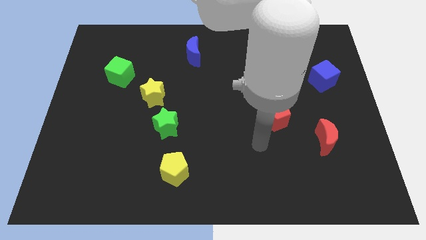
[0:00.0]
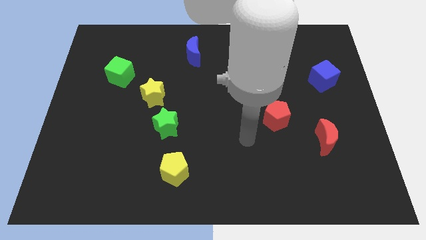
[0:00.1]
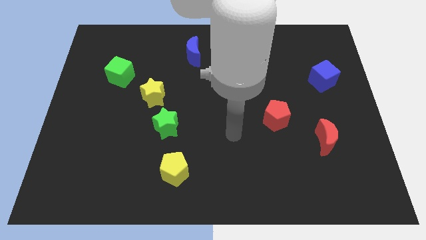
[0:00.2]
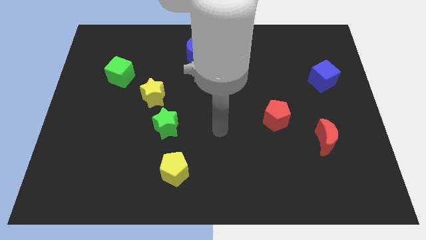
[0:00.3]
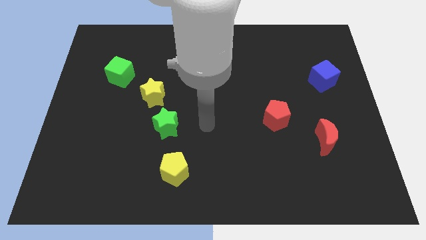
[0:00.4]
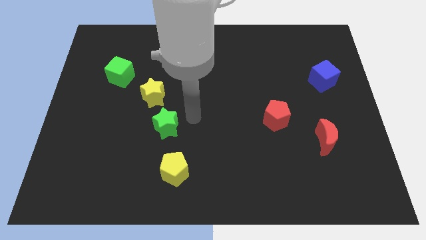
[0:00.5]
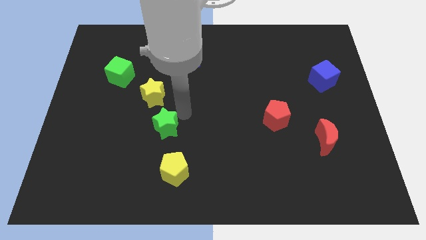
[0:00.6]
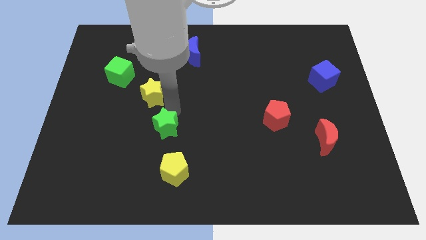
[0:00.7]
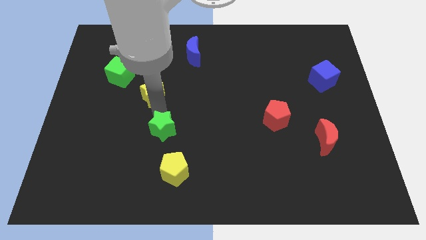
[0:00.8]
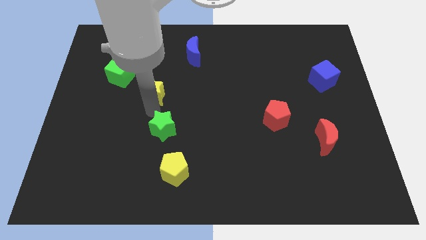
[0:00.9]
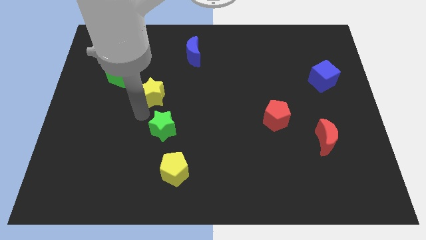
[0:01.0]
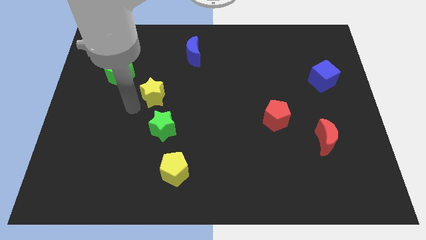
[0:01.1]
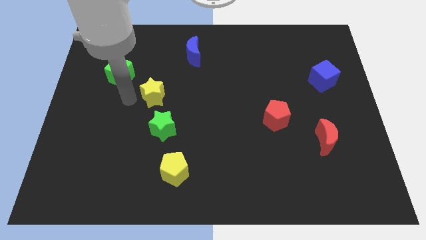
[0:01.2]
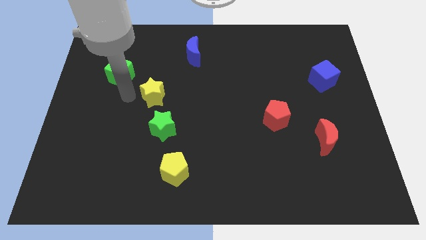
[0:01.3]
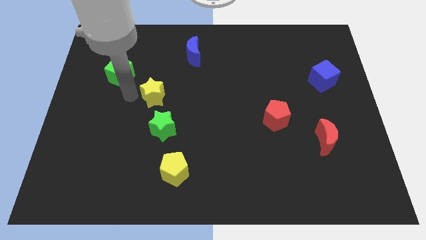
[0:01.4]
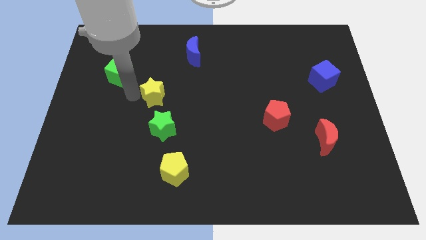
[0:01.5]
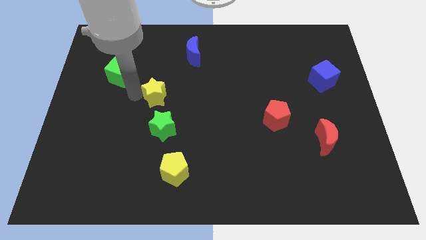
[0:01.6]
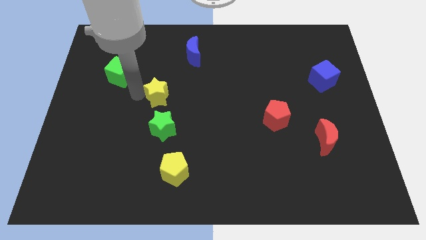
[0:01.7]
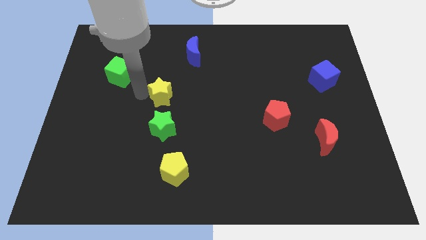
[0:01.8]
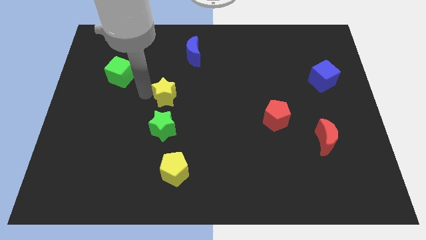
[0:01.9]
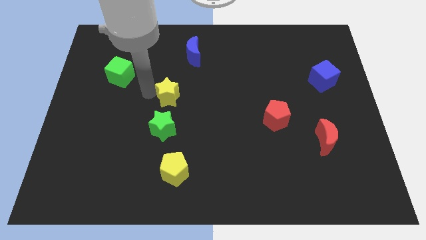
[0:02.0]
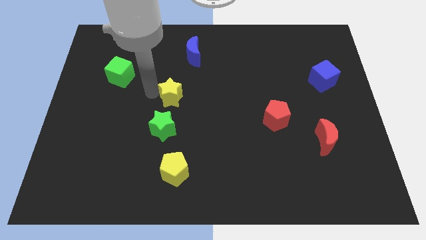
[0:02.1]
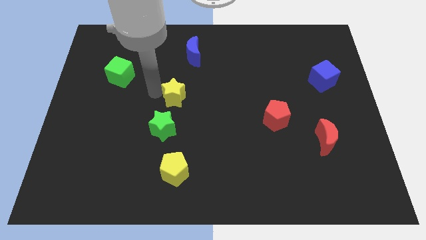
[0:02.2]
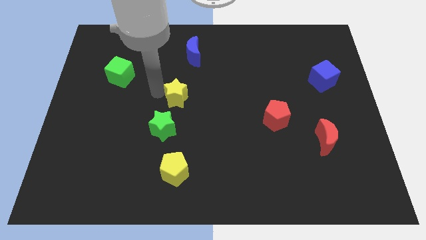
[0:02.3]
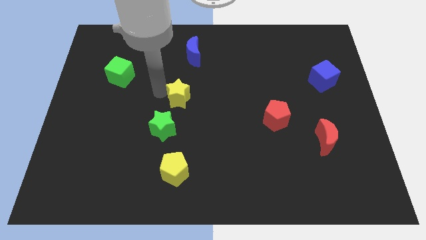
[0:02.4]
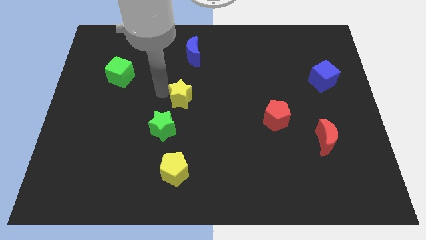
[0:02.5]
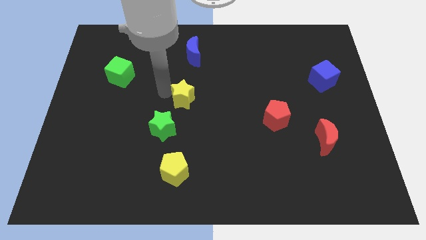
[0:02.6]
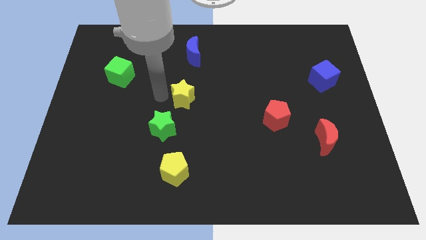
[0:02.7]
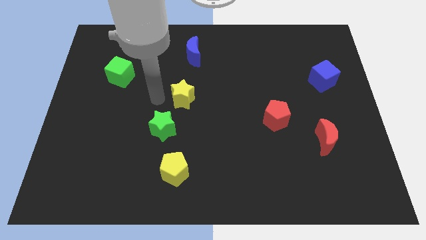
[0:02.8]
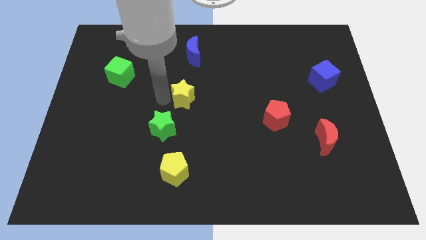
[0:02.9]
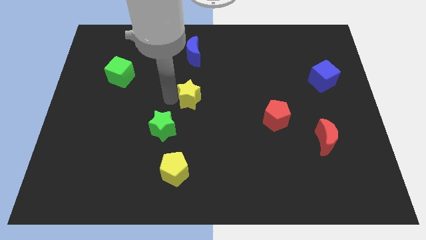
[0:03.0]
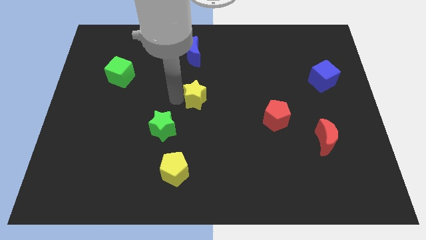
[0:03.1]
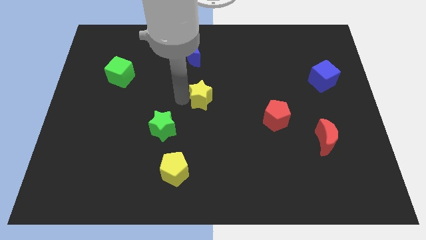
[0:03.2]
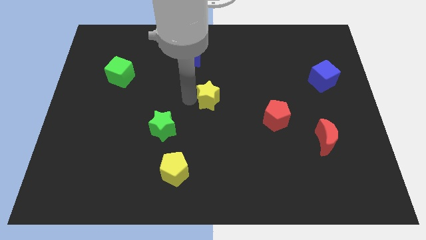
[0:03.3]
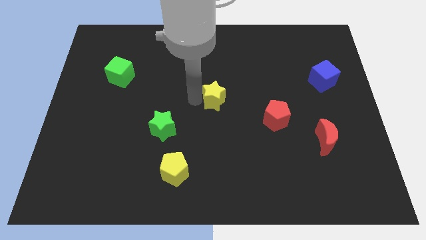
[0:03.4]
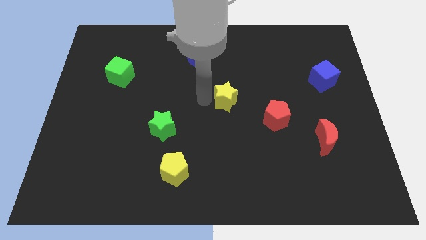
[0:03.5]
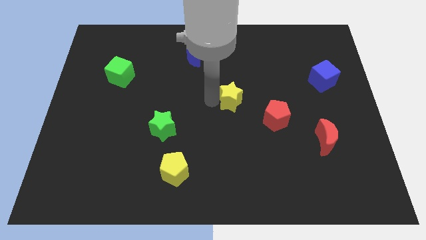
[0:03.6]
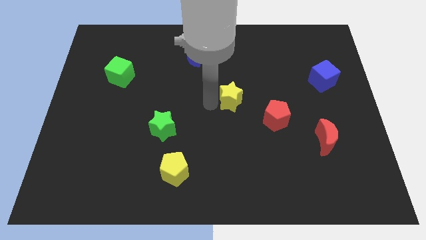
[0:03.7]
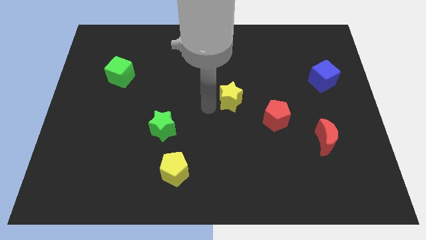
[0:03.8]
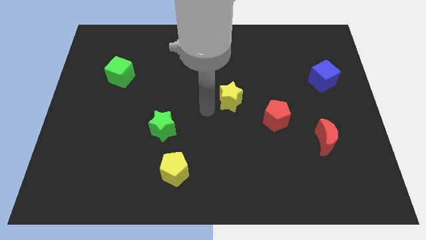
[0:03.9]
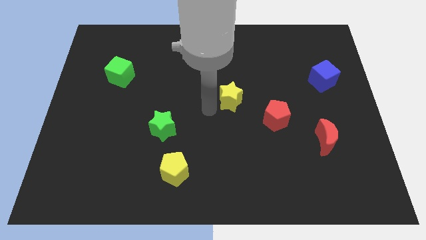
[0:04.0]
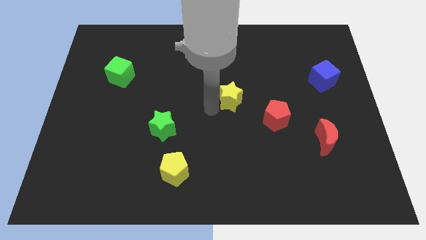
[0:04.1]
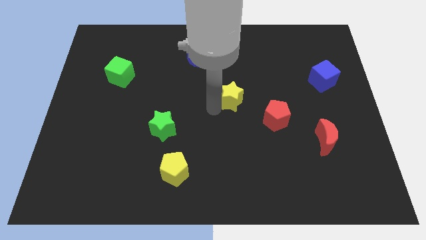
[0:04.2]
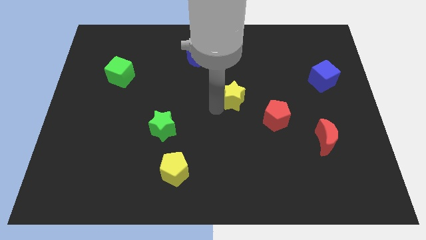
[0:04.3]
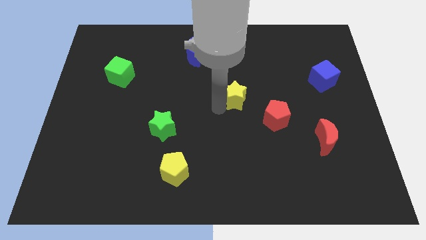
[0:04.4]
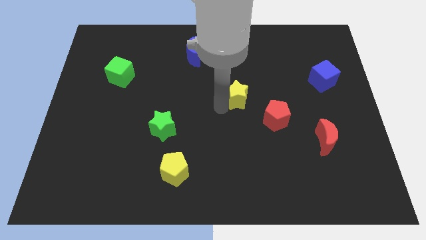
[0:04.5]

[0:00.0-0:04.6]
push the yellow star to the right

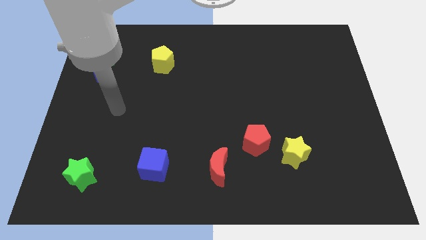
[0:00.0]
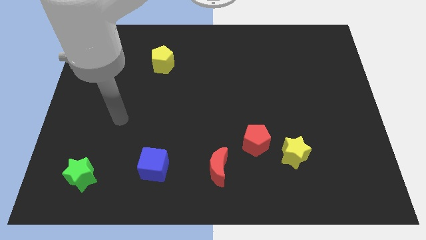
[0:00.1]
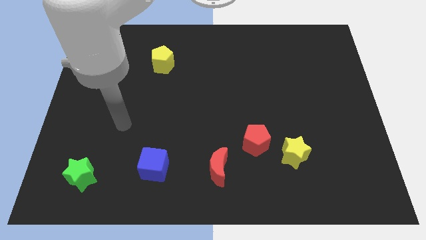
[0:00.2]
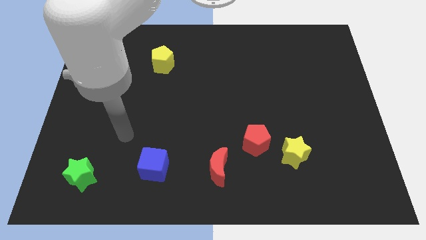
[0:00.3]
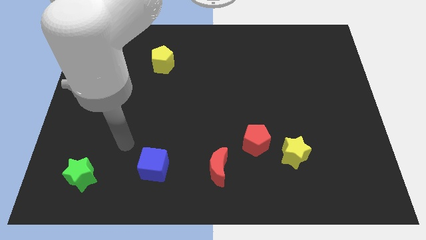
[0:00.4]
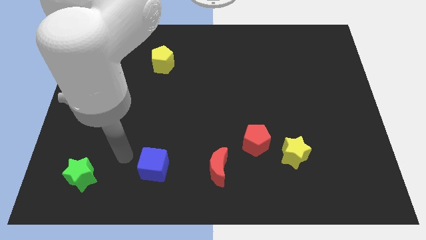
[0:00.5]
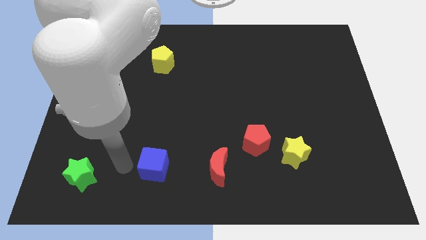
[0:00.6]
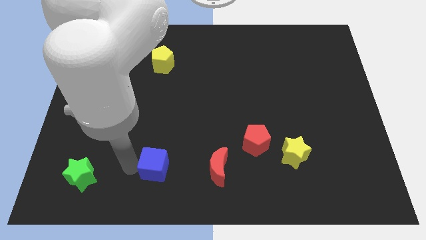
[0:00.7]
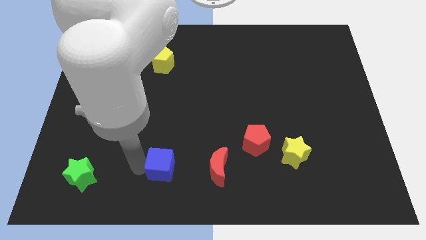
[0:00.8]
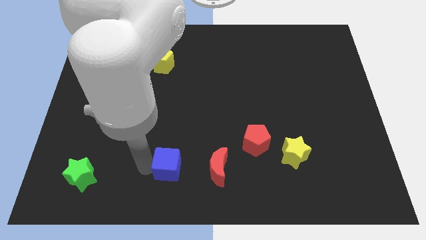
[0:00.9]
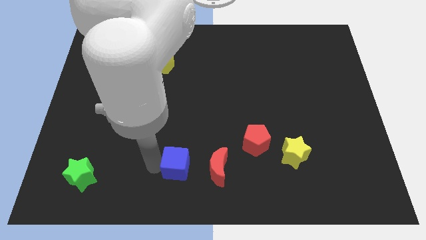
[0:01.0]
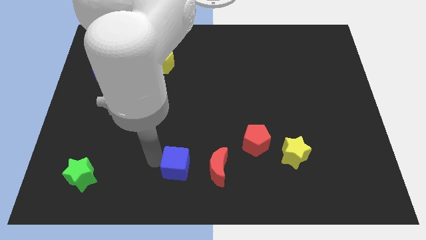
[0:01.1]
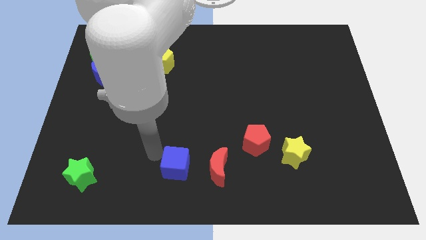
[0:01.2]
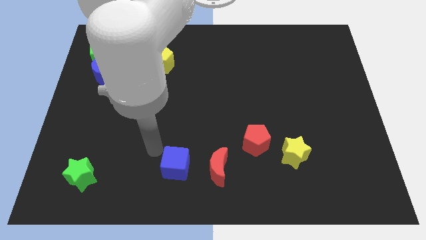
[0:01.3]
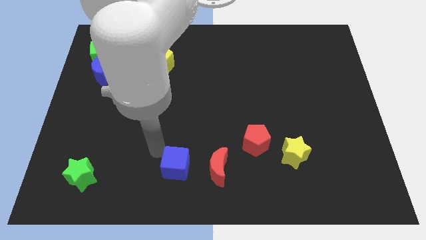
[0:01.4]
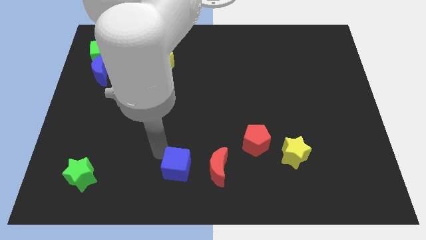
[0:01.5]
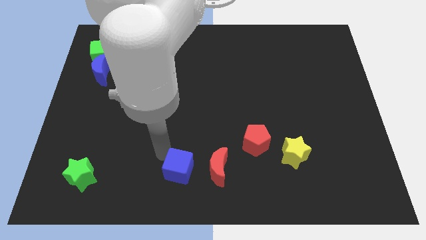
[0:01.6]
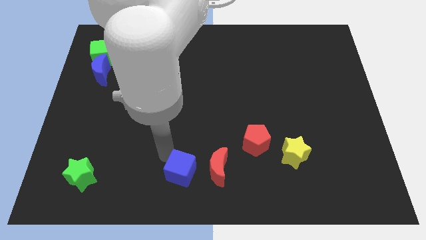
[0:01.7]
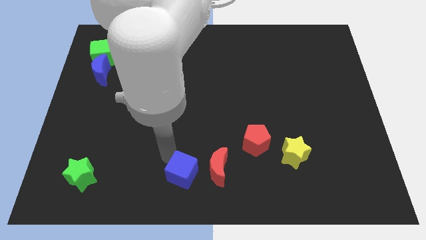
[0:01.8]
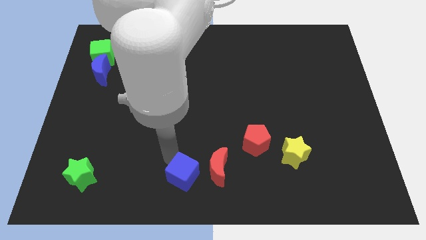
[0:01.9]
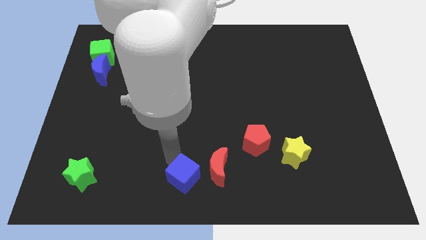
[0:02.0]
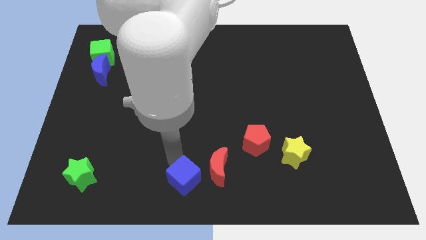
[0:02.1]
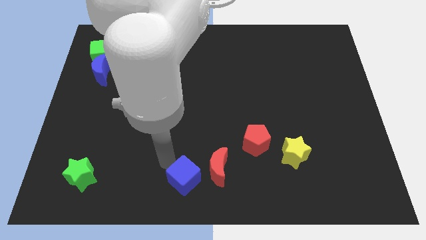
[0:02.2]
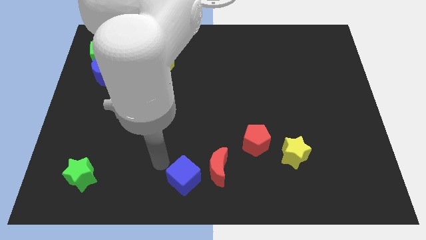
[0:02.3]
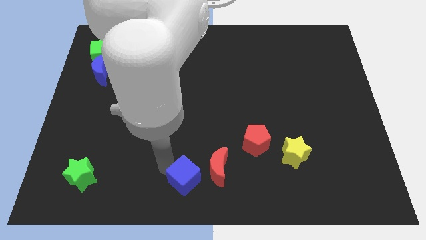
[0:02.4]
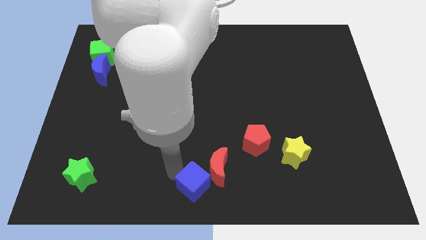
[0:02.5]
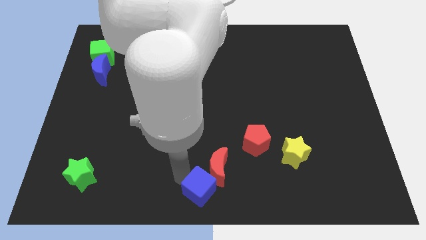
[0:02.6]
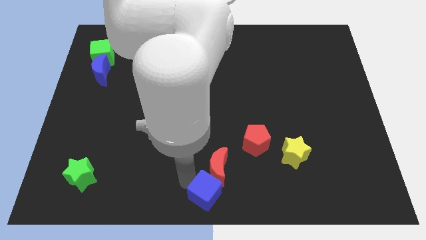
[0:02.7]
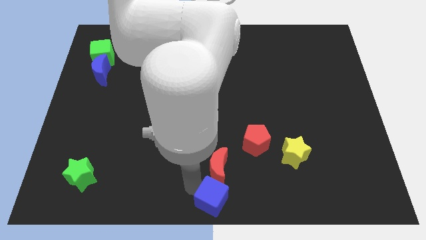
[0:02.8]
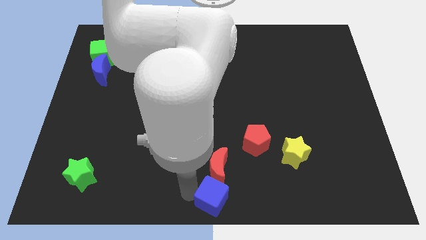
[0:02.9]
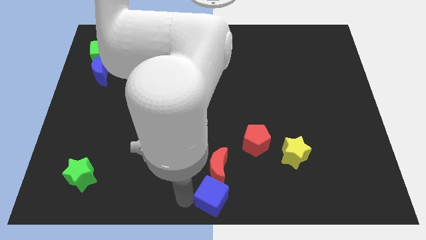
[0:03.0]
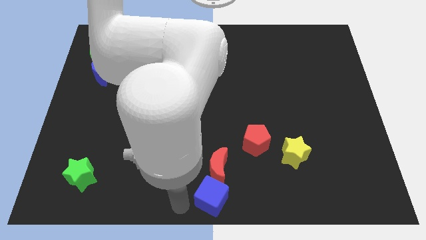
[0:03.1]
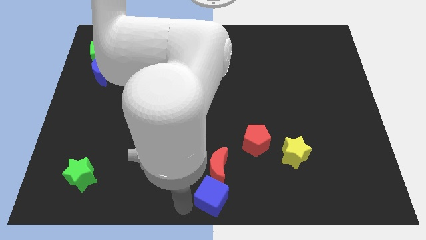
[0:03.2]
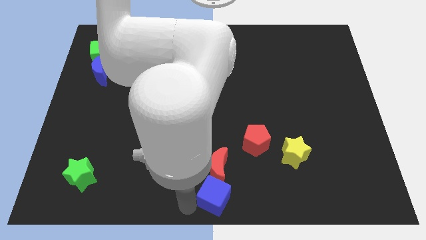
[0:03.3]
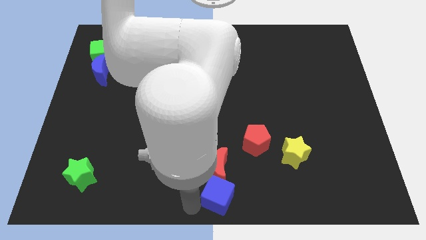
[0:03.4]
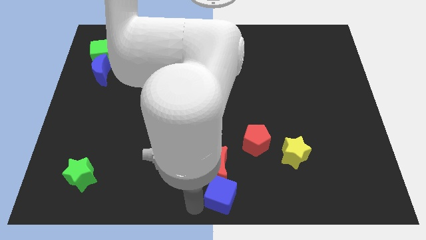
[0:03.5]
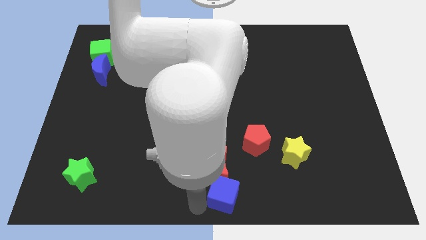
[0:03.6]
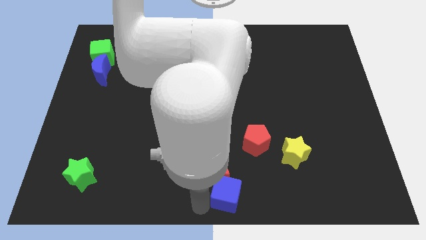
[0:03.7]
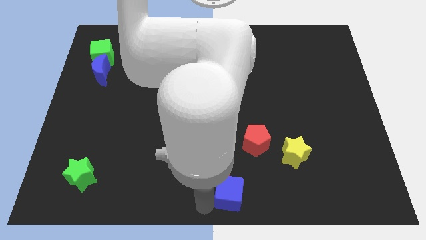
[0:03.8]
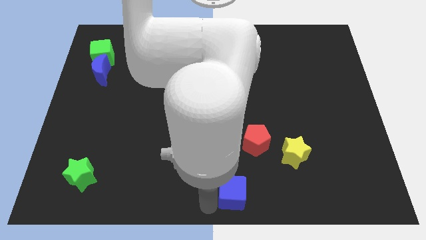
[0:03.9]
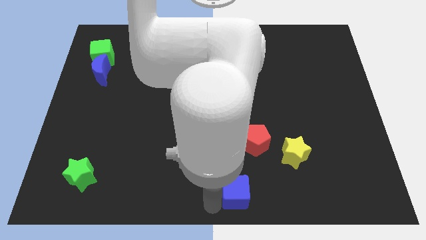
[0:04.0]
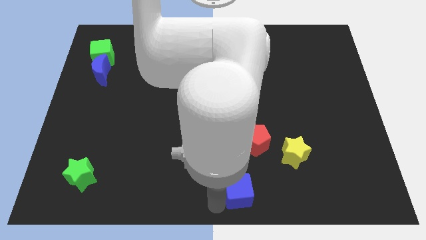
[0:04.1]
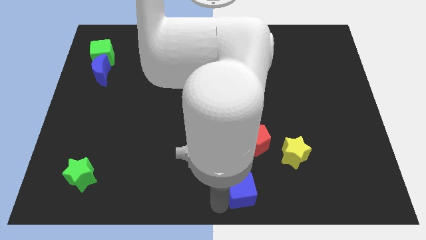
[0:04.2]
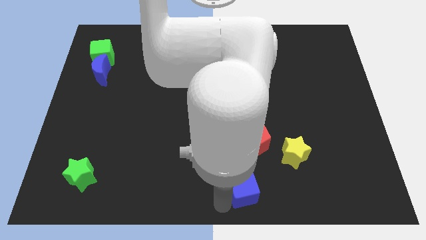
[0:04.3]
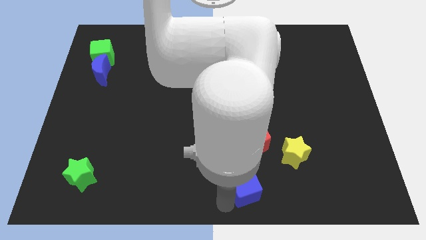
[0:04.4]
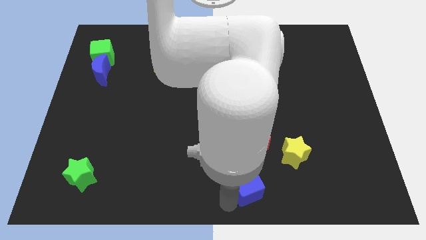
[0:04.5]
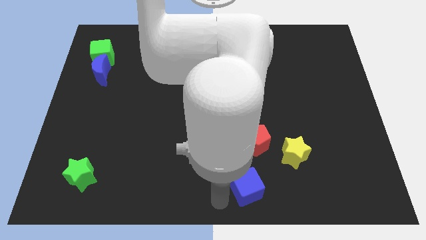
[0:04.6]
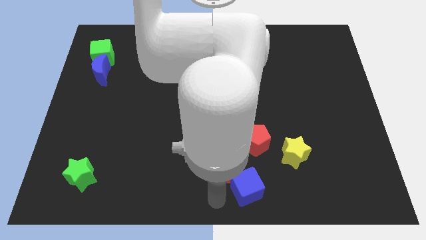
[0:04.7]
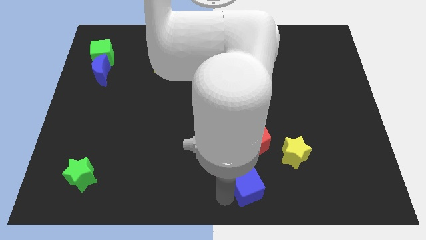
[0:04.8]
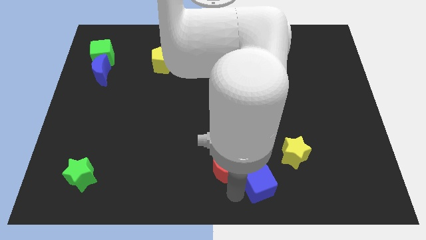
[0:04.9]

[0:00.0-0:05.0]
slide the blue cube to the right
